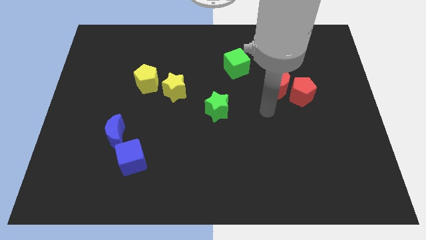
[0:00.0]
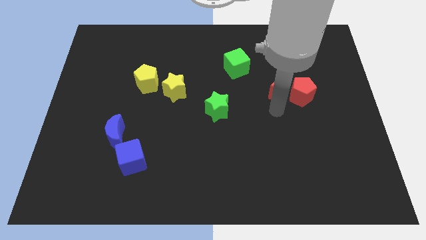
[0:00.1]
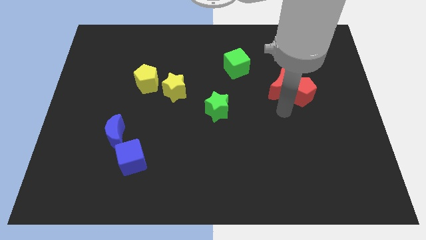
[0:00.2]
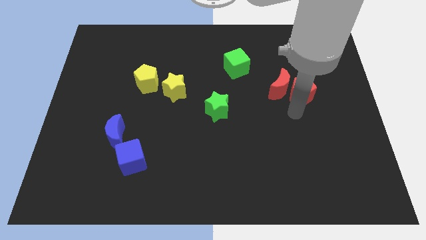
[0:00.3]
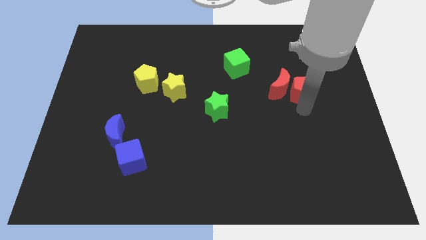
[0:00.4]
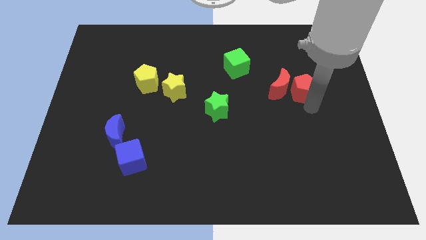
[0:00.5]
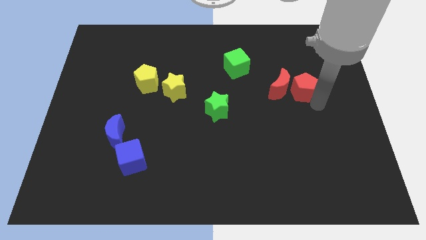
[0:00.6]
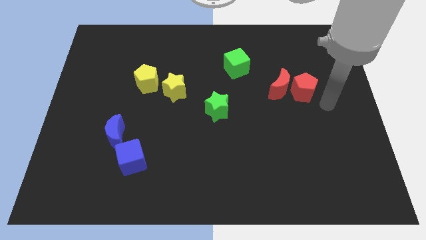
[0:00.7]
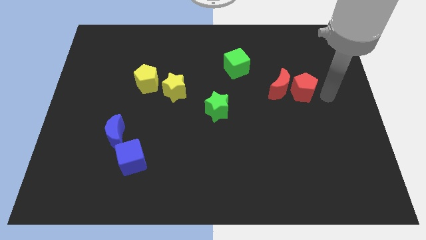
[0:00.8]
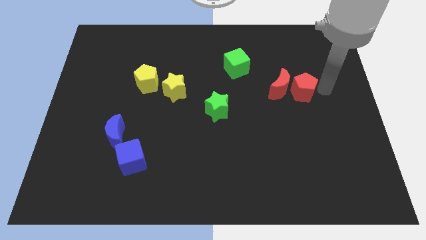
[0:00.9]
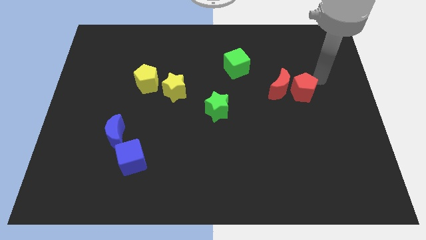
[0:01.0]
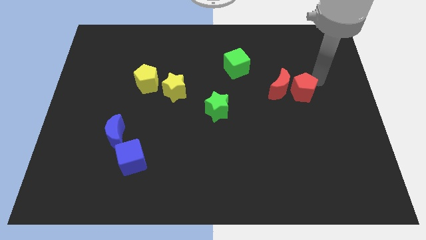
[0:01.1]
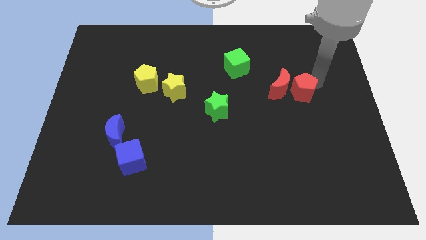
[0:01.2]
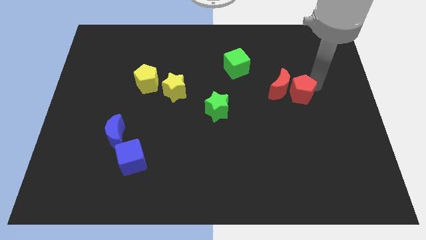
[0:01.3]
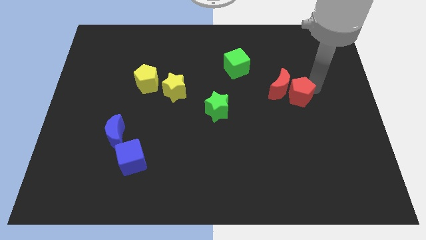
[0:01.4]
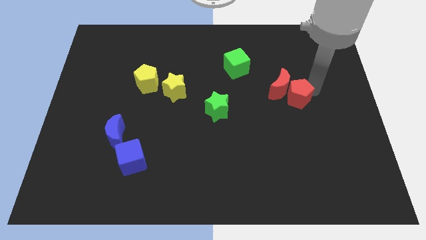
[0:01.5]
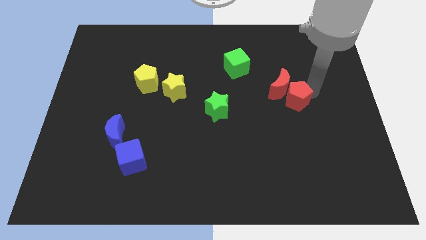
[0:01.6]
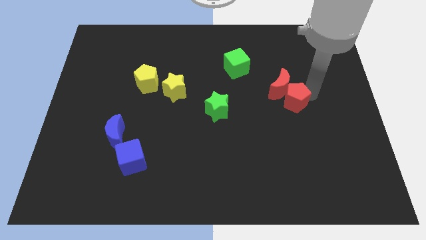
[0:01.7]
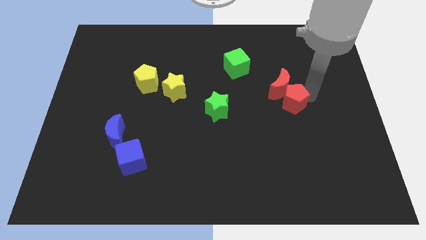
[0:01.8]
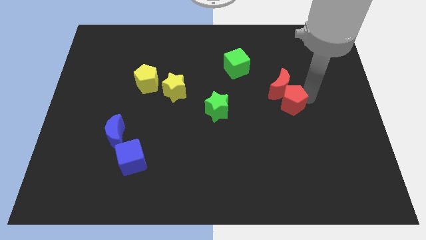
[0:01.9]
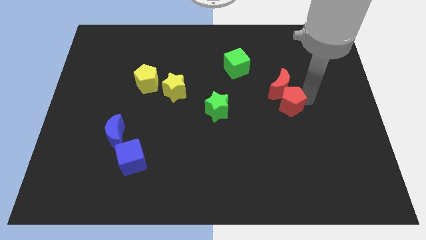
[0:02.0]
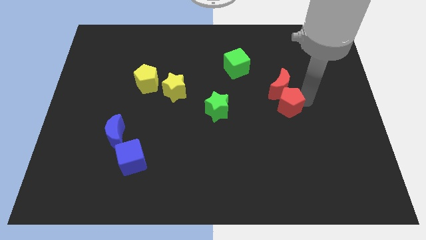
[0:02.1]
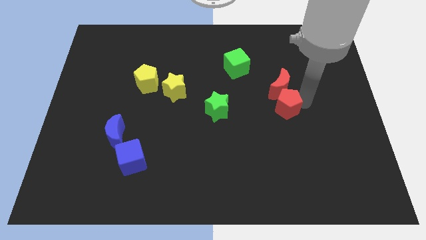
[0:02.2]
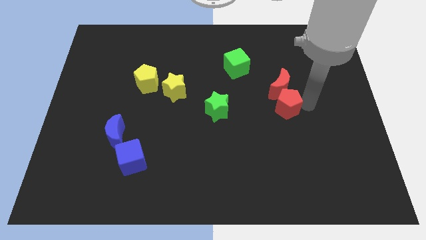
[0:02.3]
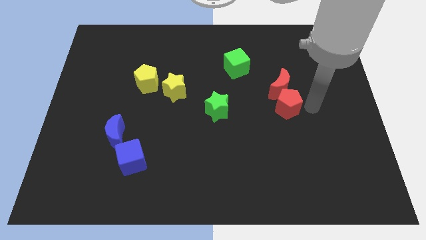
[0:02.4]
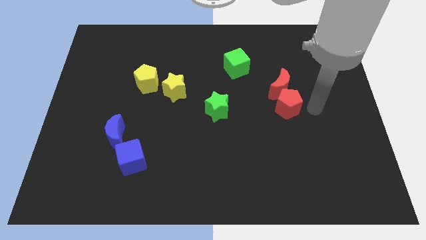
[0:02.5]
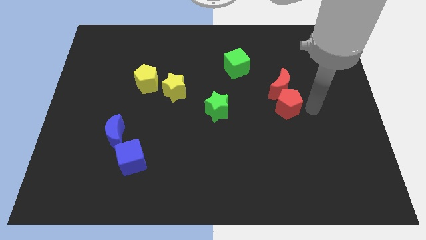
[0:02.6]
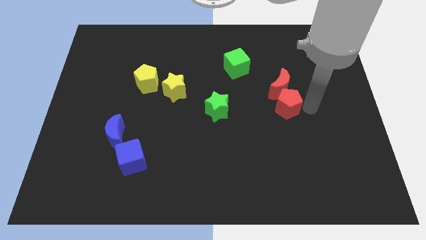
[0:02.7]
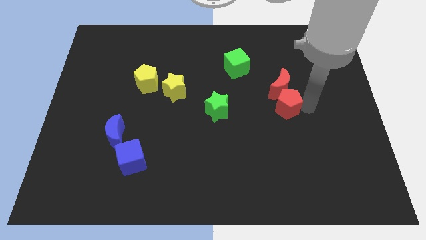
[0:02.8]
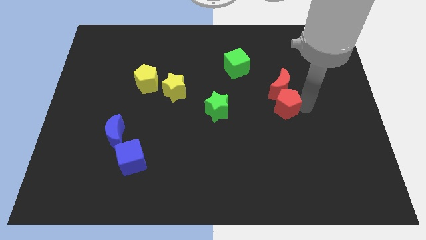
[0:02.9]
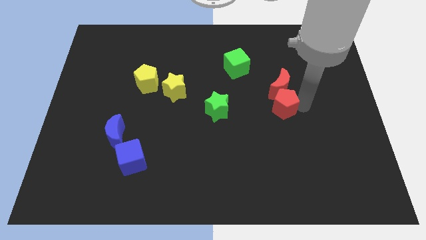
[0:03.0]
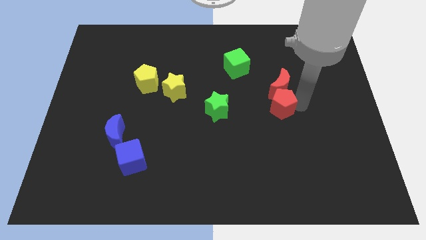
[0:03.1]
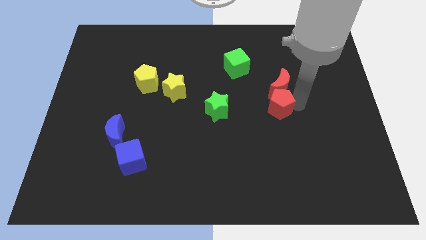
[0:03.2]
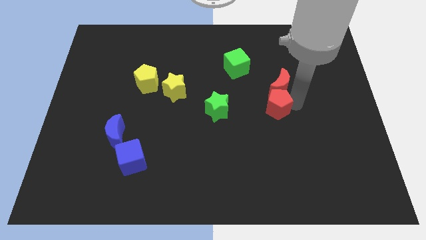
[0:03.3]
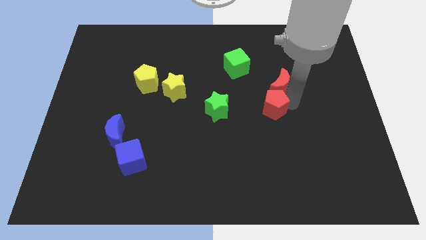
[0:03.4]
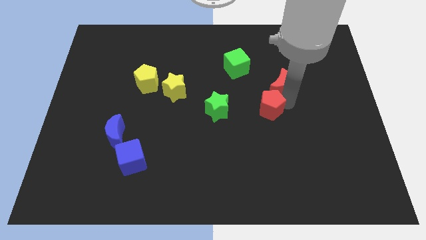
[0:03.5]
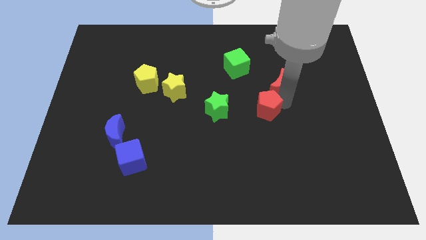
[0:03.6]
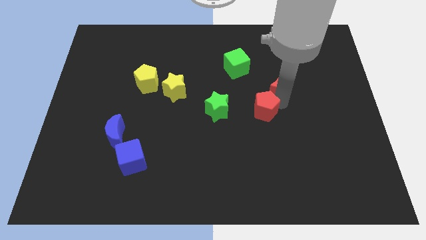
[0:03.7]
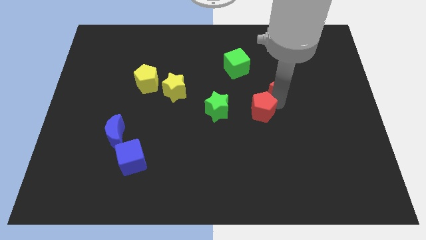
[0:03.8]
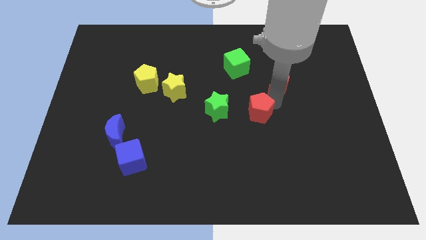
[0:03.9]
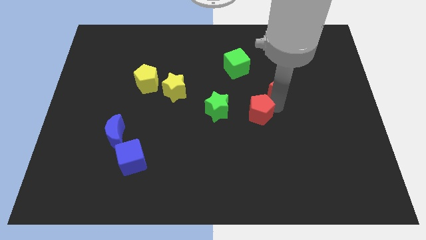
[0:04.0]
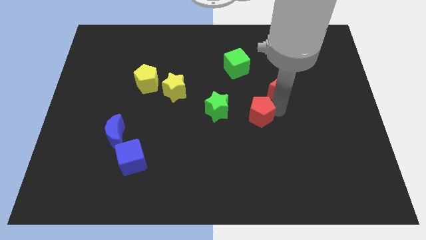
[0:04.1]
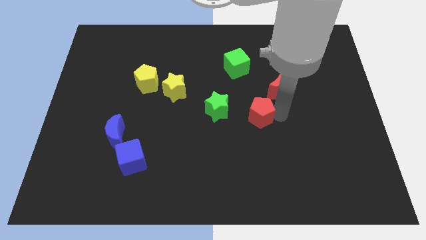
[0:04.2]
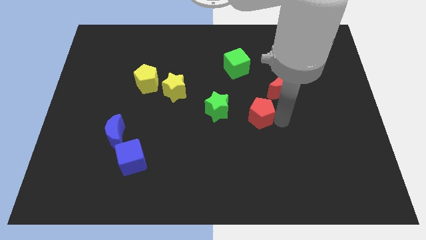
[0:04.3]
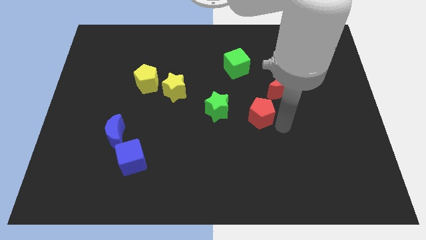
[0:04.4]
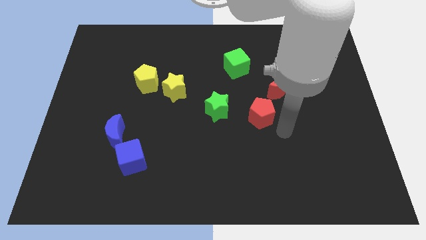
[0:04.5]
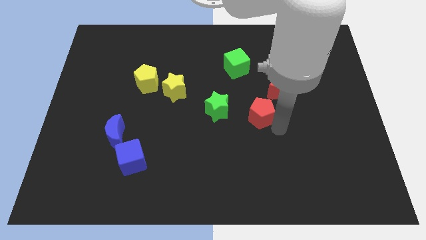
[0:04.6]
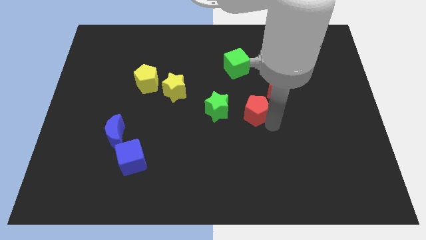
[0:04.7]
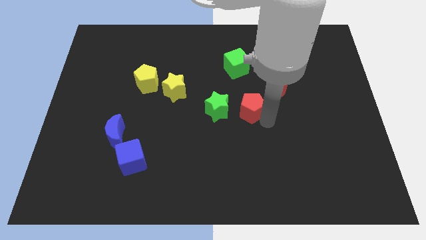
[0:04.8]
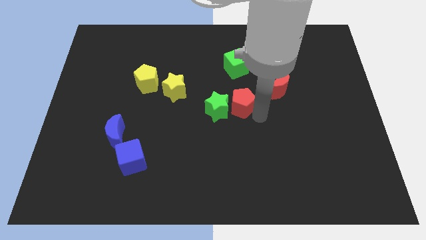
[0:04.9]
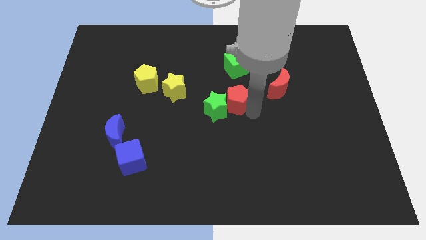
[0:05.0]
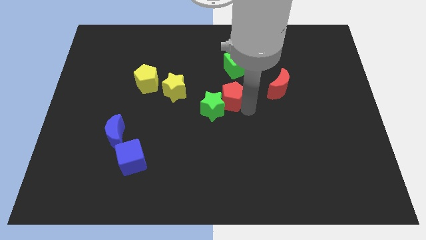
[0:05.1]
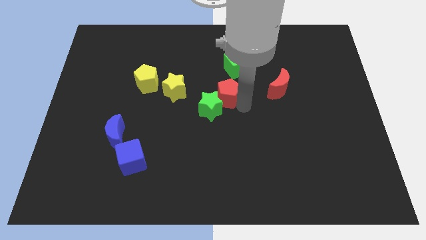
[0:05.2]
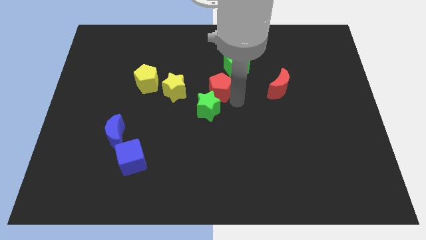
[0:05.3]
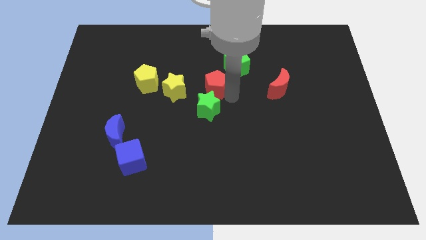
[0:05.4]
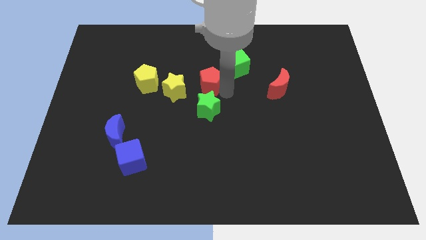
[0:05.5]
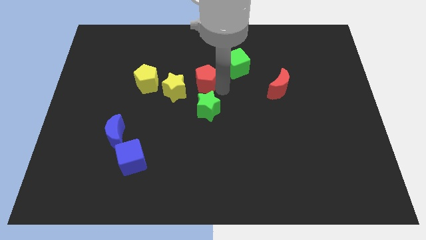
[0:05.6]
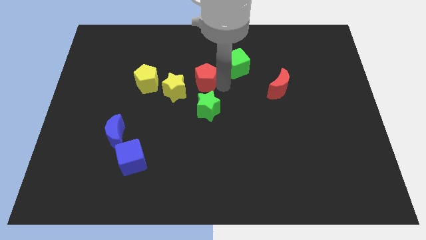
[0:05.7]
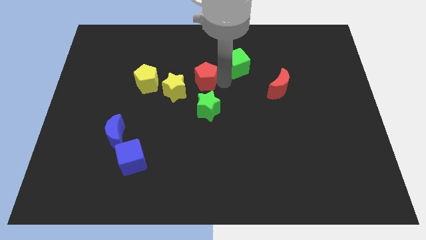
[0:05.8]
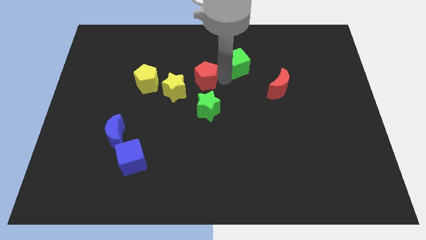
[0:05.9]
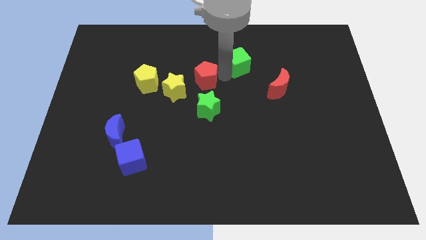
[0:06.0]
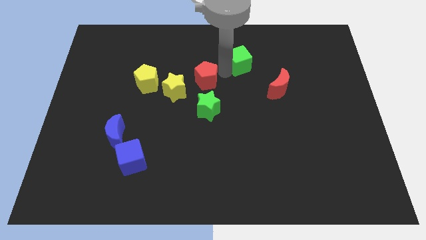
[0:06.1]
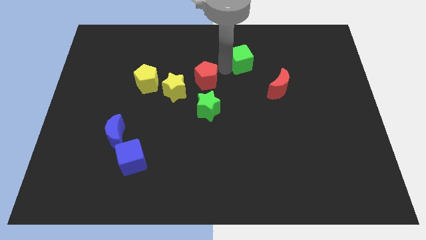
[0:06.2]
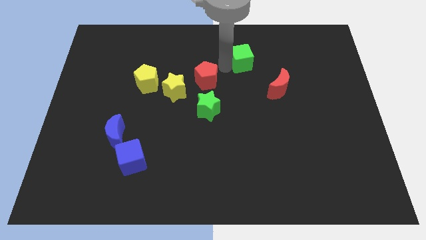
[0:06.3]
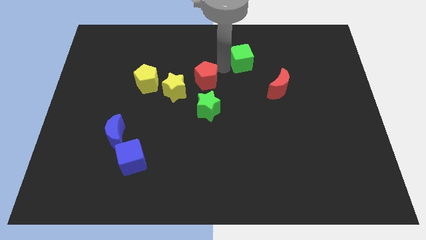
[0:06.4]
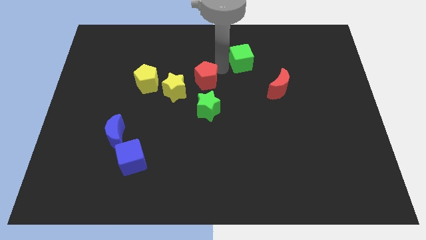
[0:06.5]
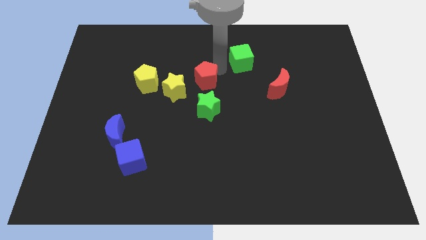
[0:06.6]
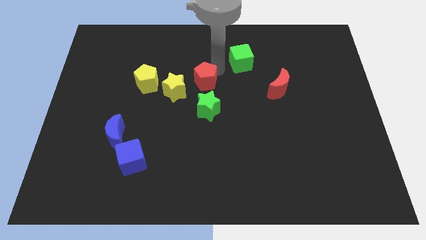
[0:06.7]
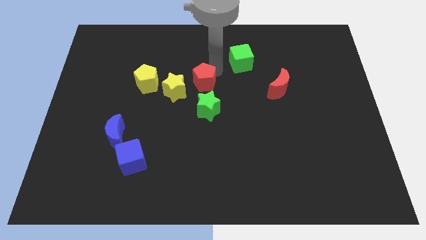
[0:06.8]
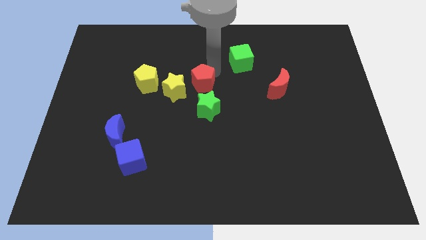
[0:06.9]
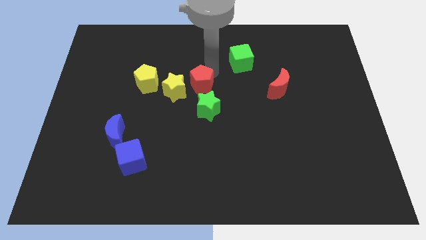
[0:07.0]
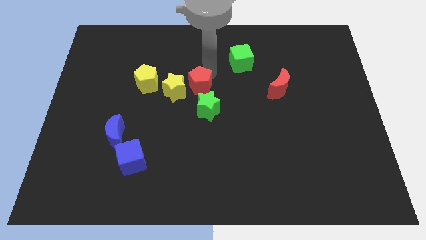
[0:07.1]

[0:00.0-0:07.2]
put the red pentagon next to the yellow star

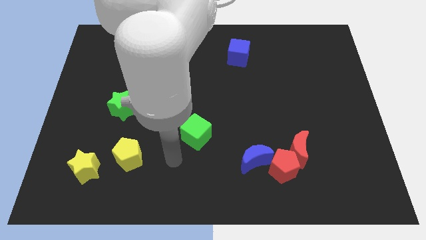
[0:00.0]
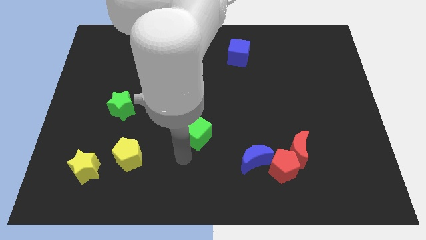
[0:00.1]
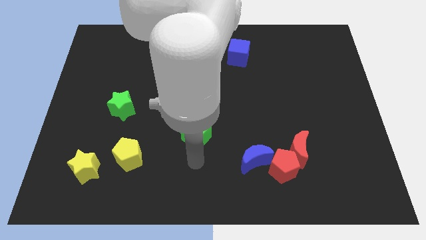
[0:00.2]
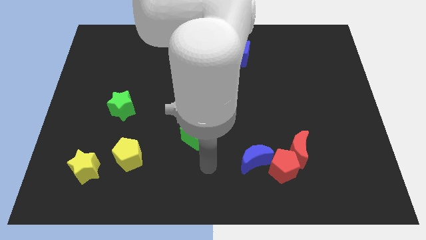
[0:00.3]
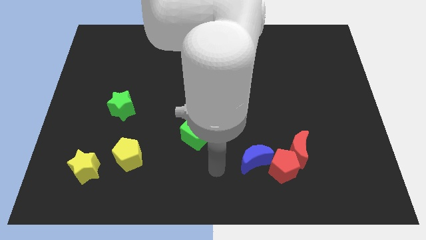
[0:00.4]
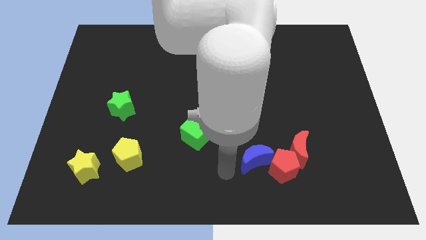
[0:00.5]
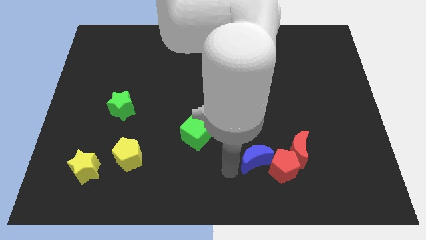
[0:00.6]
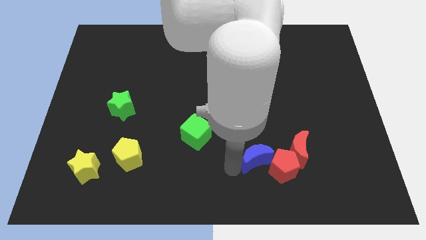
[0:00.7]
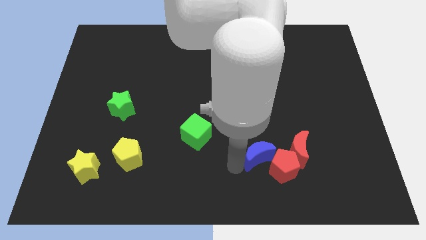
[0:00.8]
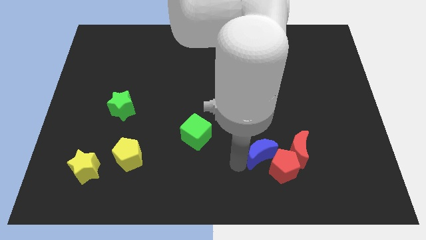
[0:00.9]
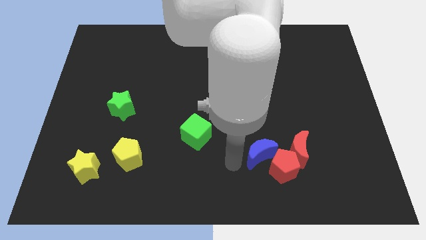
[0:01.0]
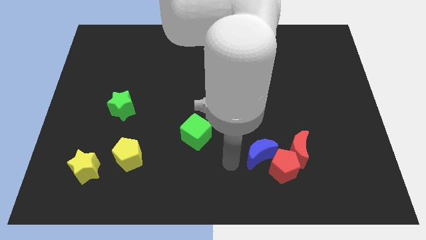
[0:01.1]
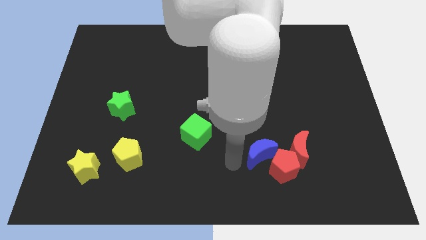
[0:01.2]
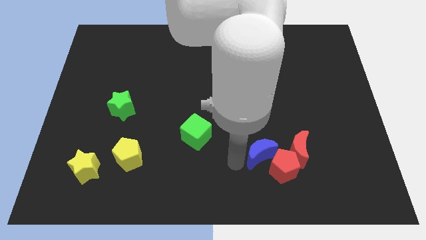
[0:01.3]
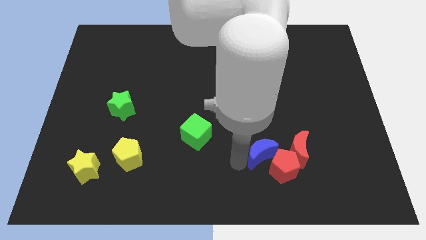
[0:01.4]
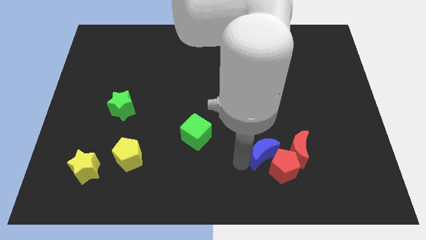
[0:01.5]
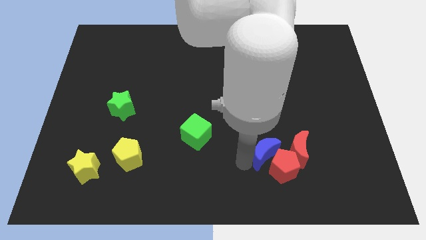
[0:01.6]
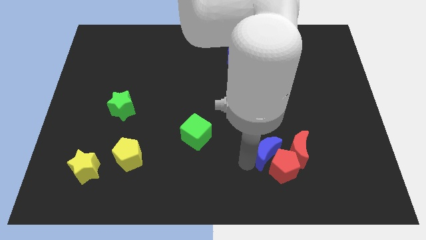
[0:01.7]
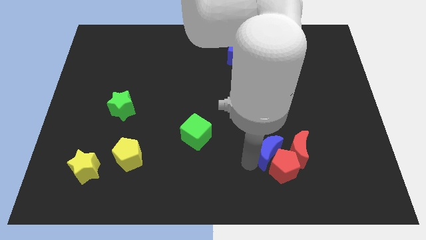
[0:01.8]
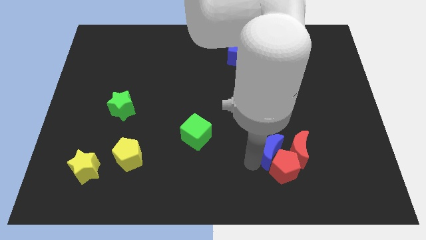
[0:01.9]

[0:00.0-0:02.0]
slide the blue moon close to the red moon
